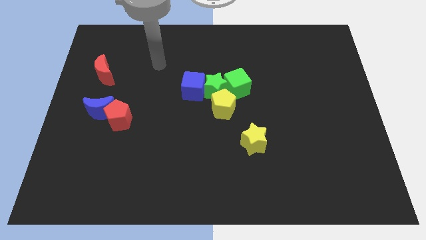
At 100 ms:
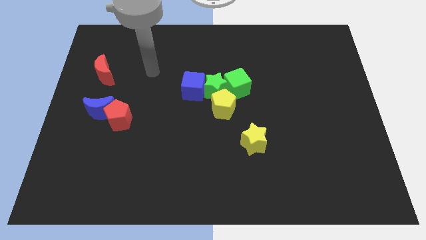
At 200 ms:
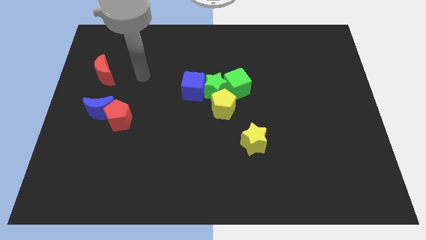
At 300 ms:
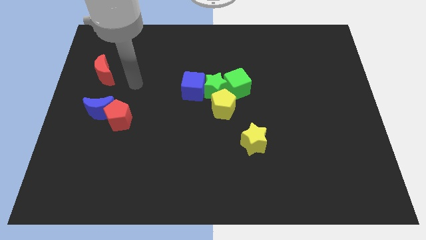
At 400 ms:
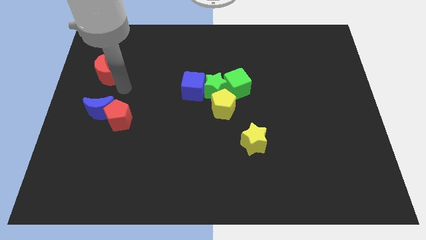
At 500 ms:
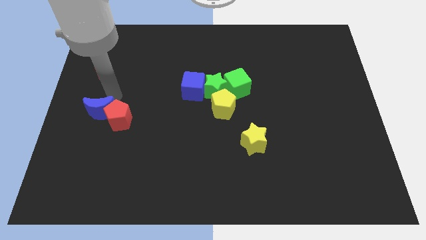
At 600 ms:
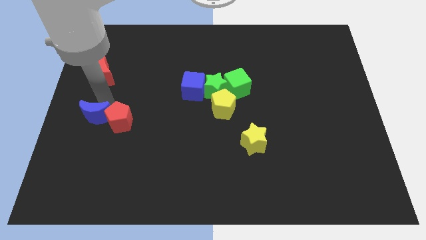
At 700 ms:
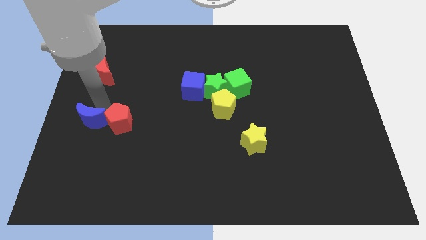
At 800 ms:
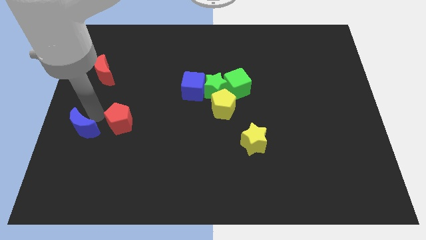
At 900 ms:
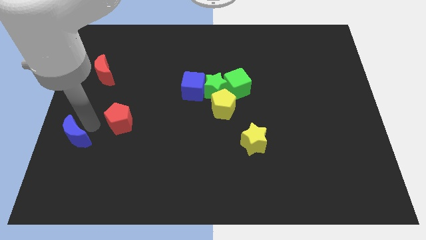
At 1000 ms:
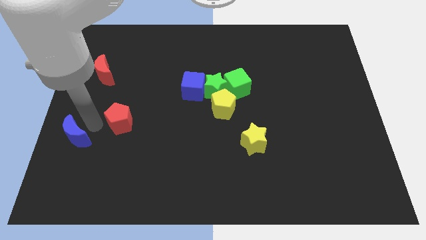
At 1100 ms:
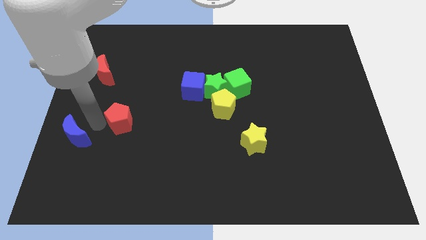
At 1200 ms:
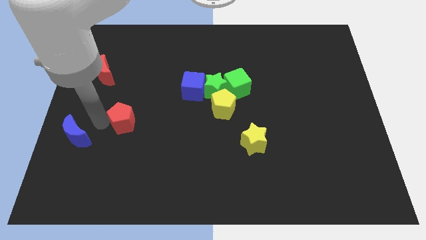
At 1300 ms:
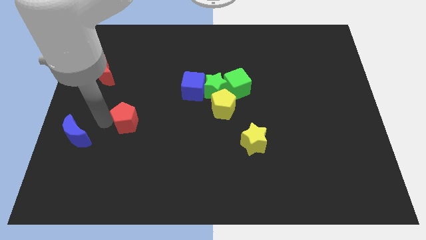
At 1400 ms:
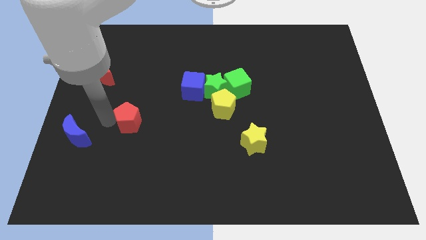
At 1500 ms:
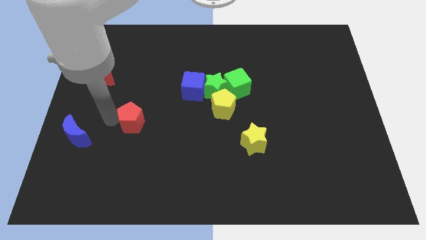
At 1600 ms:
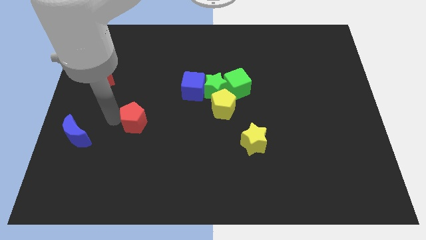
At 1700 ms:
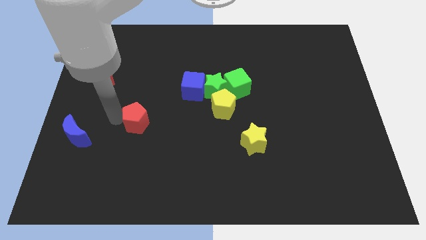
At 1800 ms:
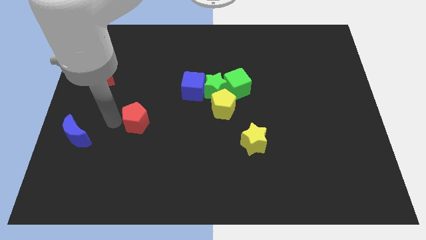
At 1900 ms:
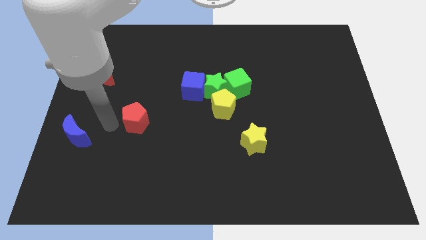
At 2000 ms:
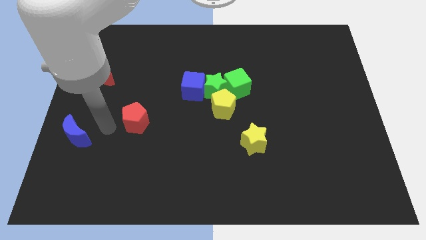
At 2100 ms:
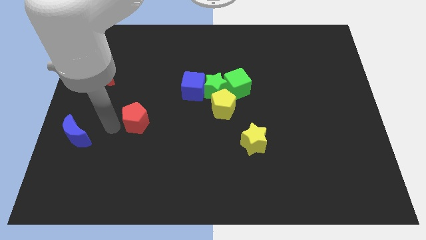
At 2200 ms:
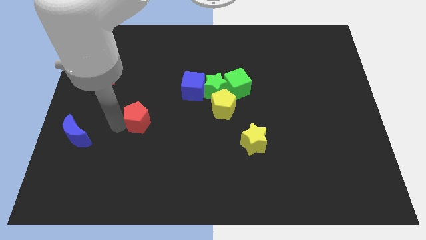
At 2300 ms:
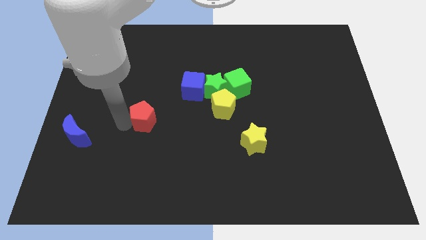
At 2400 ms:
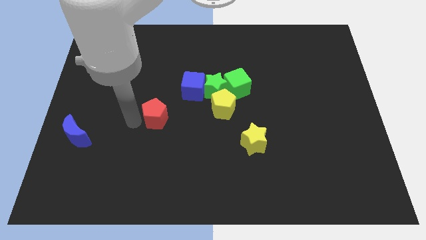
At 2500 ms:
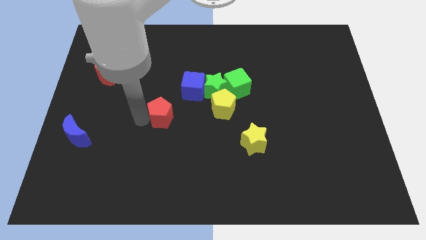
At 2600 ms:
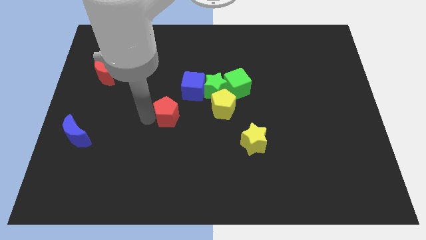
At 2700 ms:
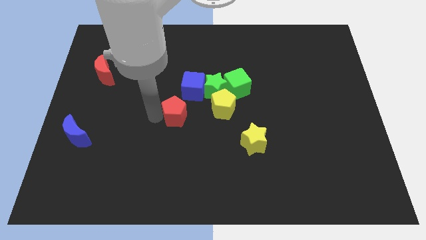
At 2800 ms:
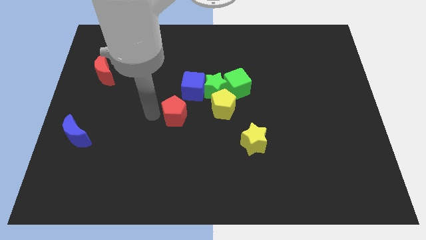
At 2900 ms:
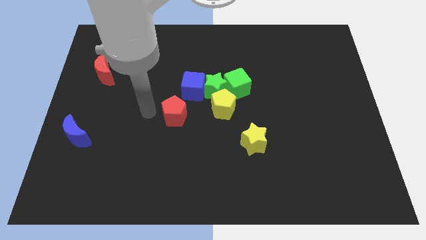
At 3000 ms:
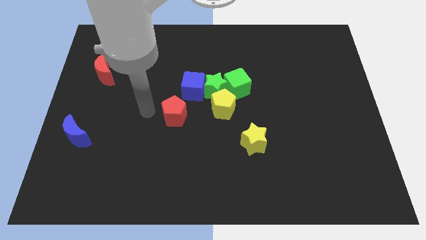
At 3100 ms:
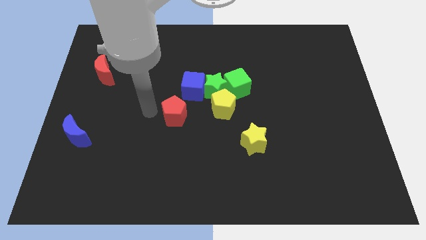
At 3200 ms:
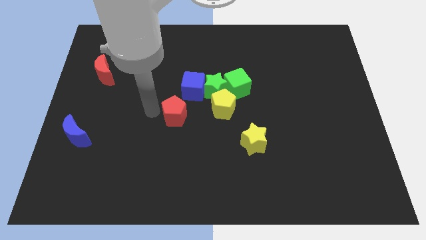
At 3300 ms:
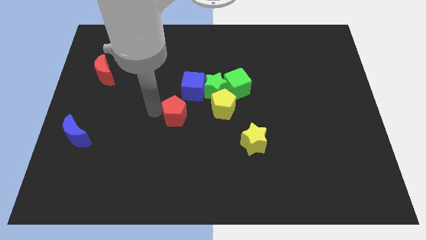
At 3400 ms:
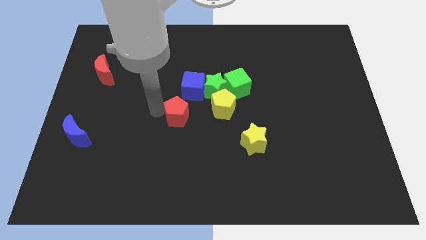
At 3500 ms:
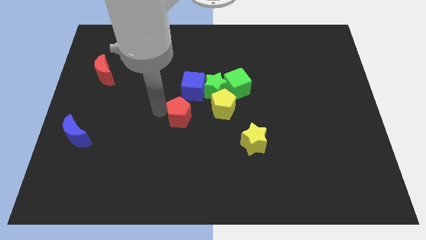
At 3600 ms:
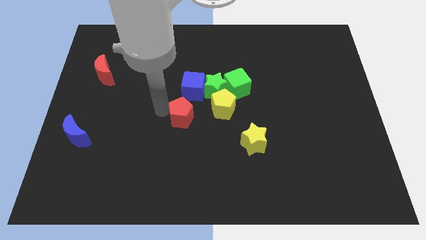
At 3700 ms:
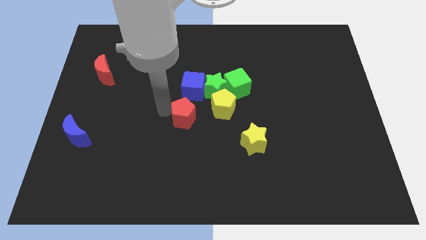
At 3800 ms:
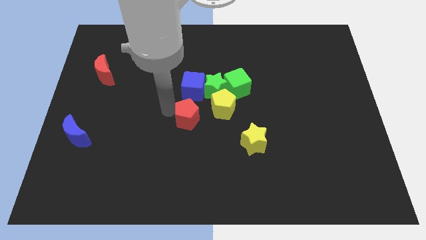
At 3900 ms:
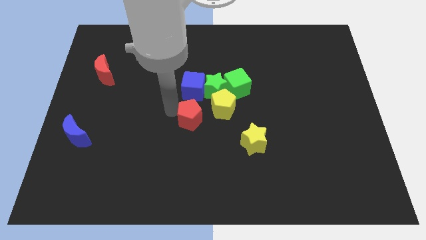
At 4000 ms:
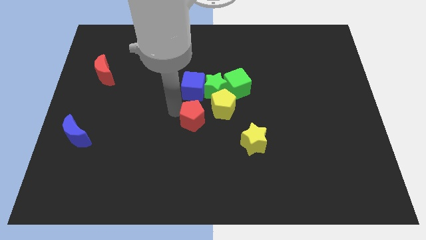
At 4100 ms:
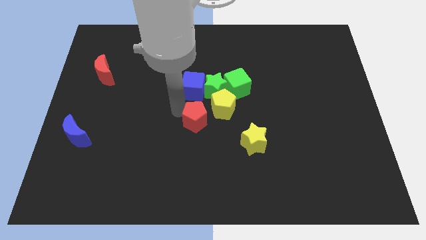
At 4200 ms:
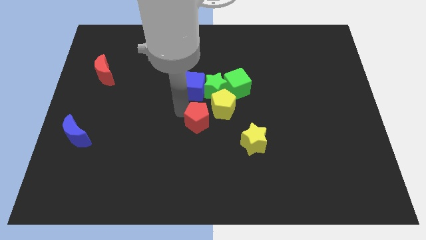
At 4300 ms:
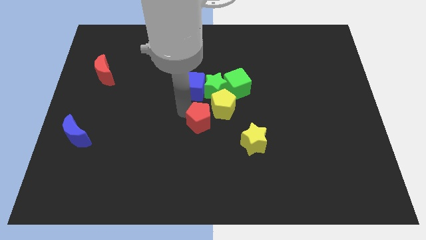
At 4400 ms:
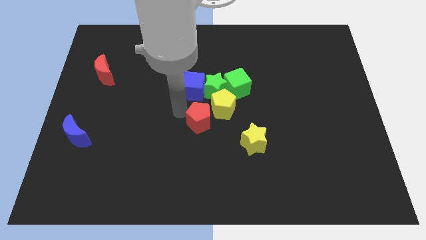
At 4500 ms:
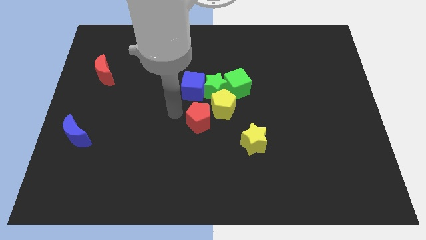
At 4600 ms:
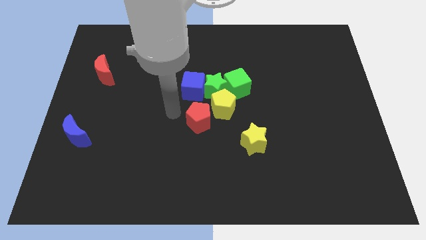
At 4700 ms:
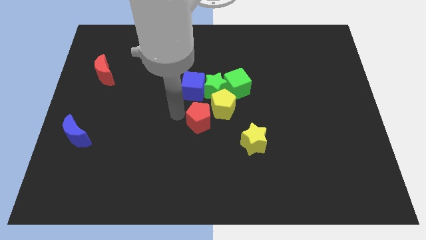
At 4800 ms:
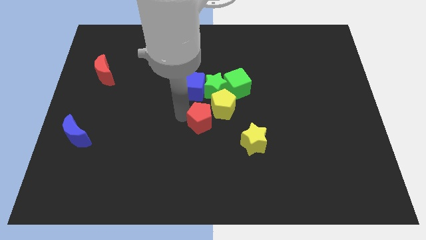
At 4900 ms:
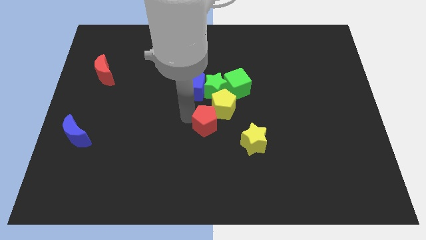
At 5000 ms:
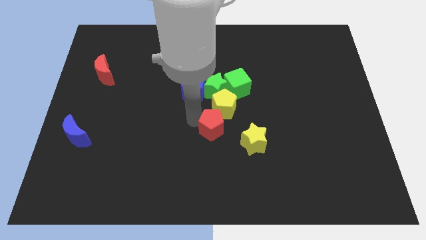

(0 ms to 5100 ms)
slide the red pentagon to the top left of the yellow star

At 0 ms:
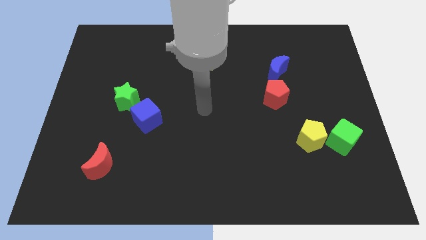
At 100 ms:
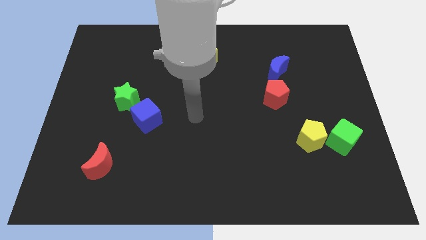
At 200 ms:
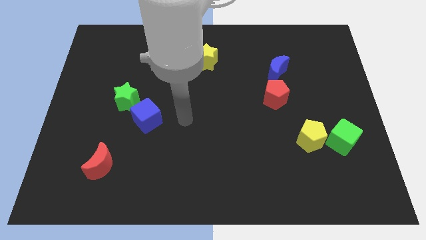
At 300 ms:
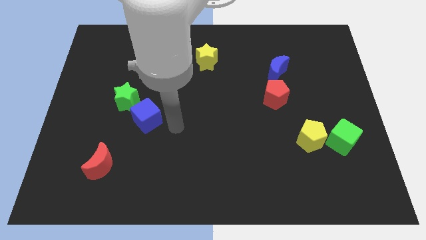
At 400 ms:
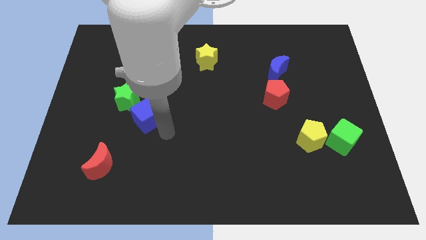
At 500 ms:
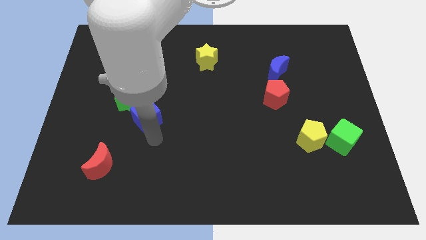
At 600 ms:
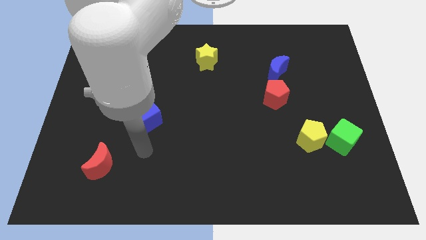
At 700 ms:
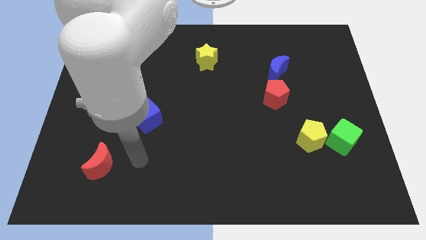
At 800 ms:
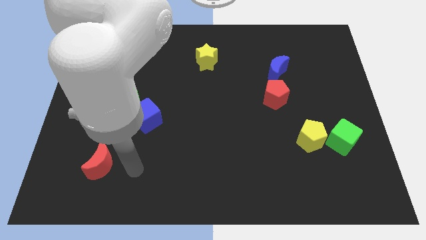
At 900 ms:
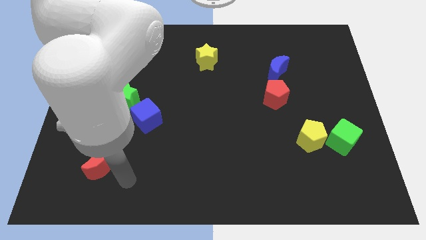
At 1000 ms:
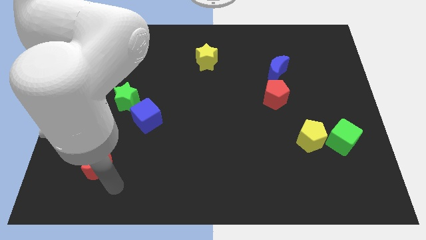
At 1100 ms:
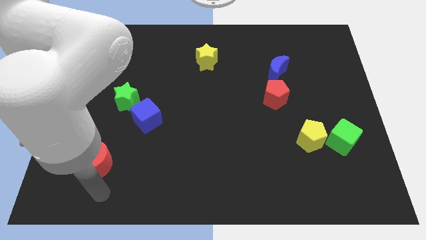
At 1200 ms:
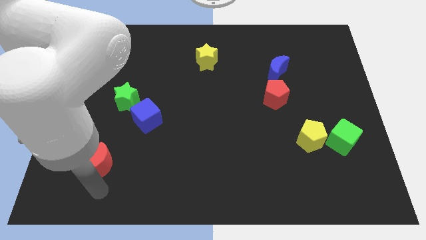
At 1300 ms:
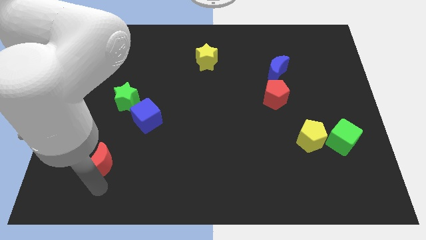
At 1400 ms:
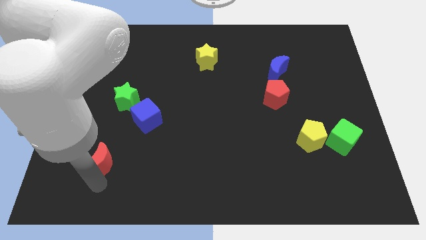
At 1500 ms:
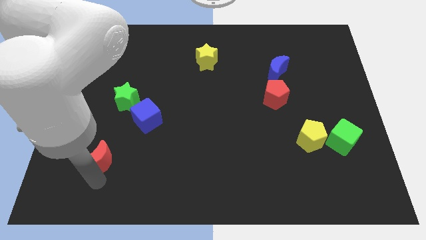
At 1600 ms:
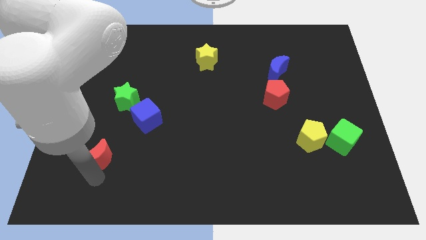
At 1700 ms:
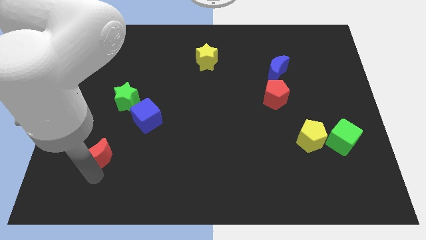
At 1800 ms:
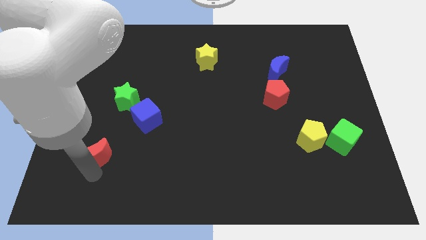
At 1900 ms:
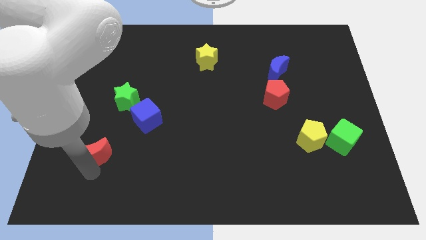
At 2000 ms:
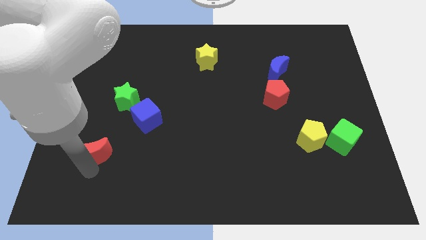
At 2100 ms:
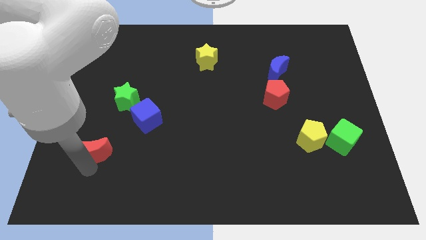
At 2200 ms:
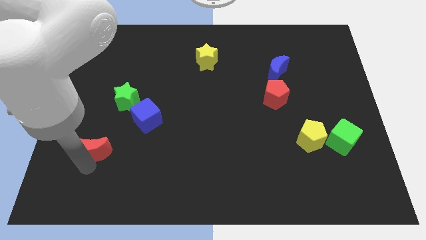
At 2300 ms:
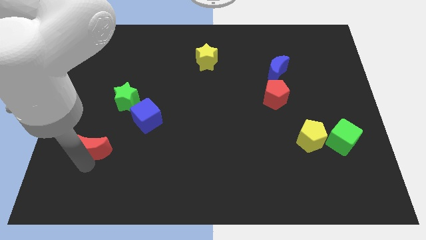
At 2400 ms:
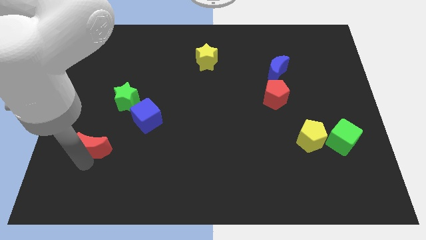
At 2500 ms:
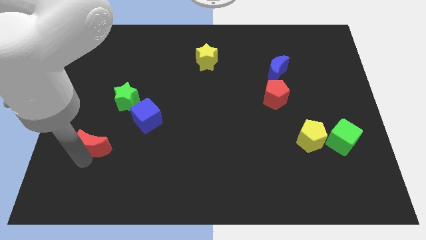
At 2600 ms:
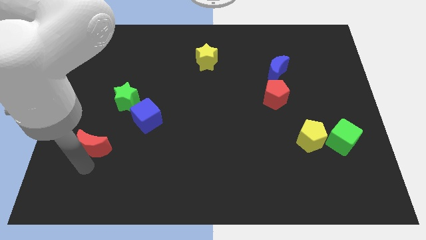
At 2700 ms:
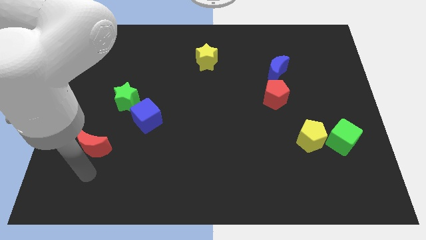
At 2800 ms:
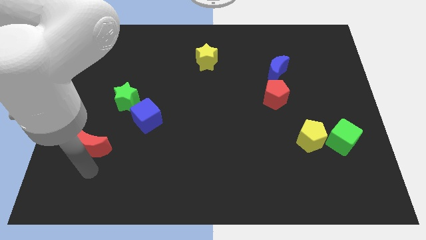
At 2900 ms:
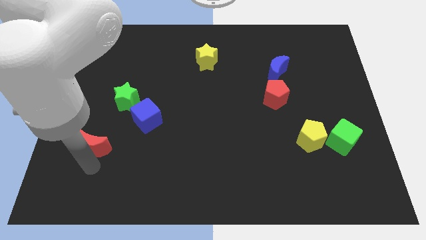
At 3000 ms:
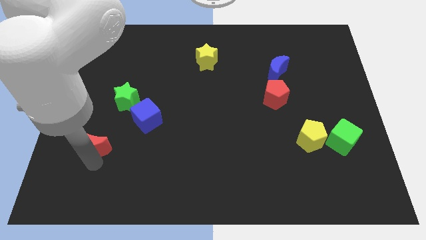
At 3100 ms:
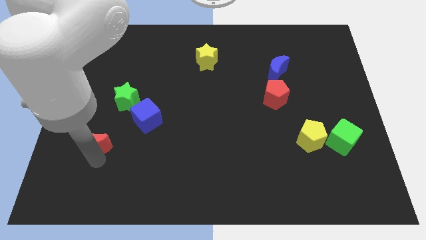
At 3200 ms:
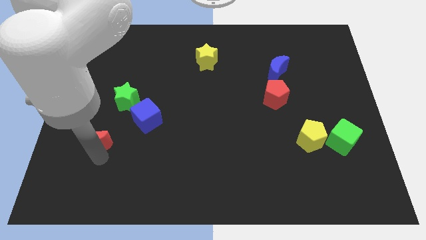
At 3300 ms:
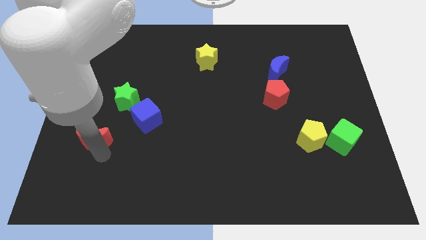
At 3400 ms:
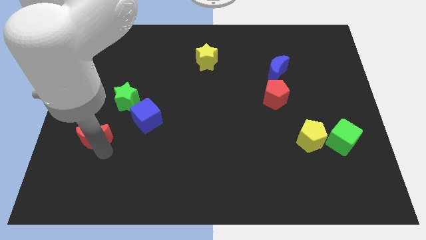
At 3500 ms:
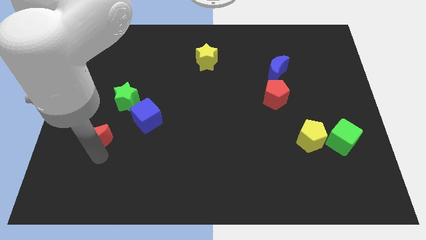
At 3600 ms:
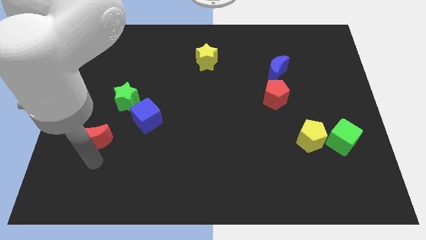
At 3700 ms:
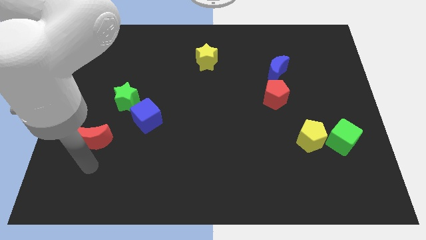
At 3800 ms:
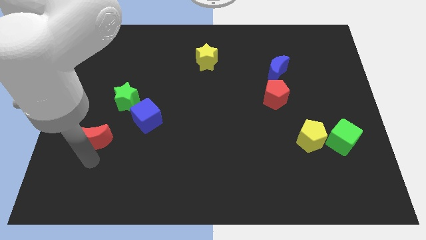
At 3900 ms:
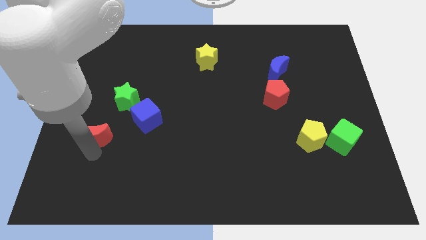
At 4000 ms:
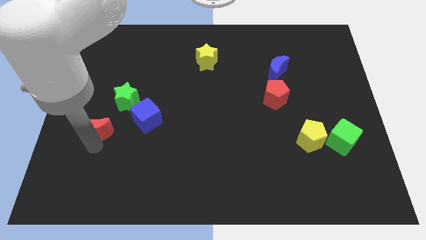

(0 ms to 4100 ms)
move the red moon to the left side of the blue cube
